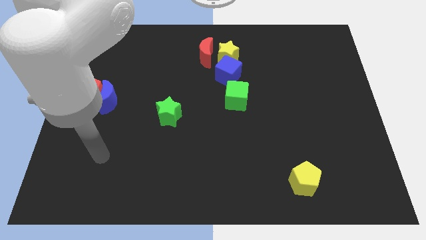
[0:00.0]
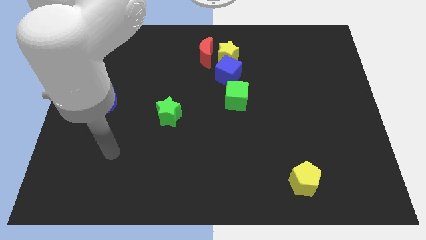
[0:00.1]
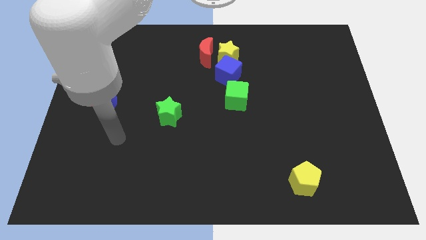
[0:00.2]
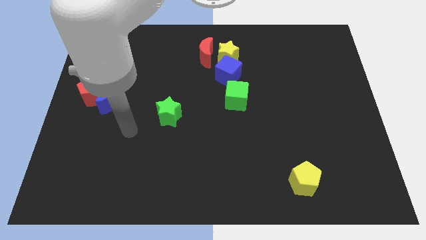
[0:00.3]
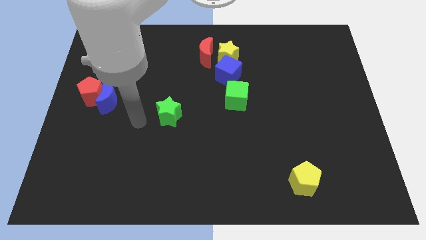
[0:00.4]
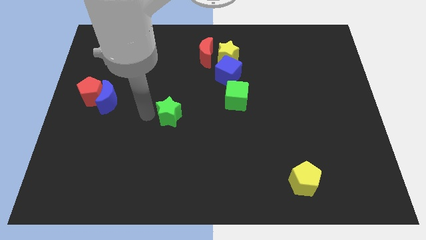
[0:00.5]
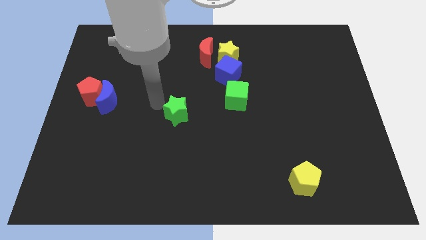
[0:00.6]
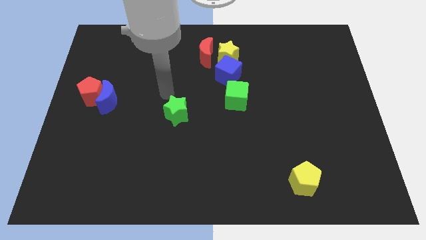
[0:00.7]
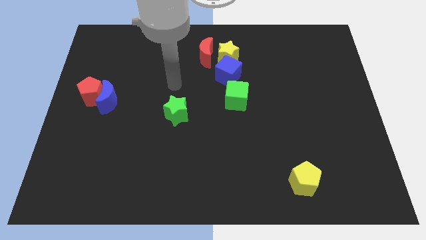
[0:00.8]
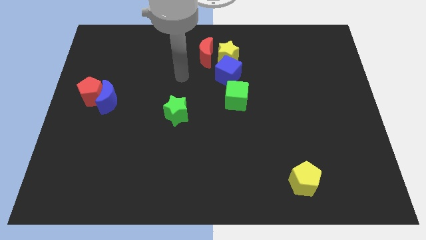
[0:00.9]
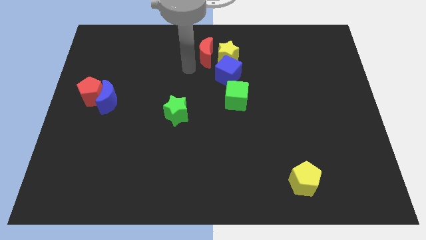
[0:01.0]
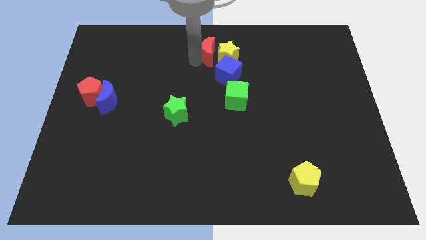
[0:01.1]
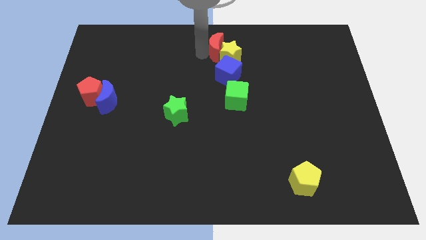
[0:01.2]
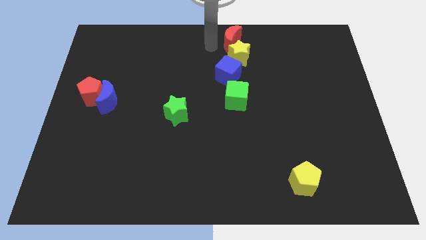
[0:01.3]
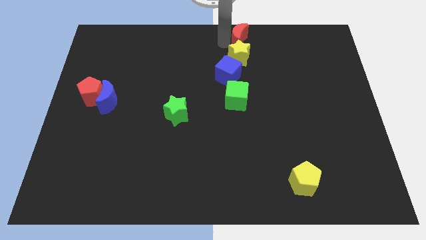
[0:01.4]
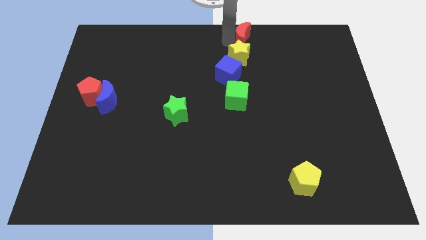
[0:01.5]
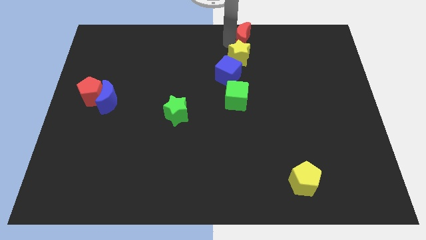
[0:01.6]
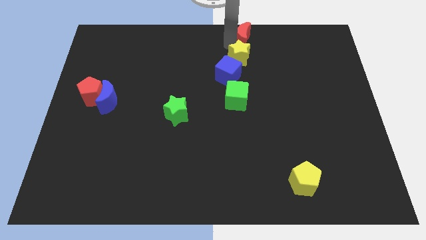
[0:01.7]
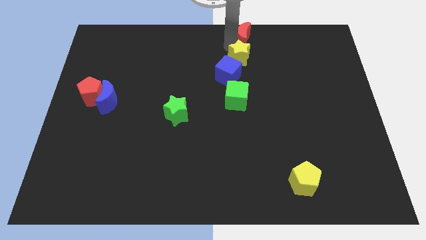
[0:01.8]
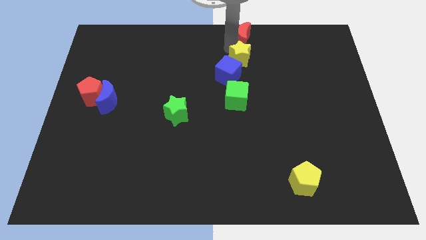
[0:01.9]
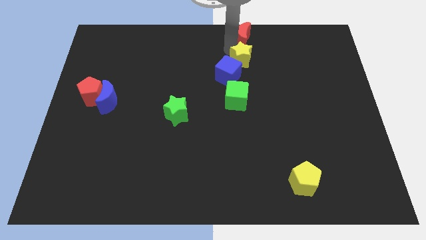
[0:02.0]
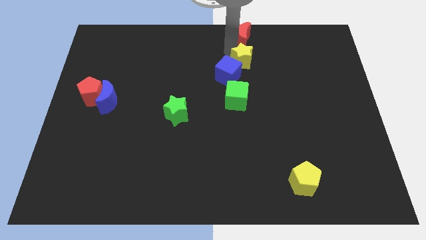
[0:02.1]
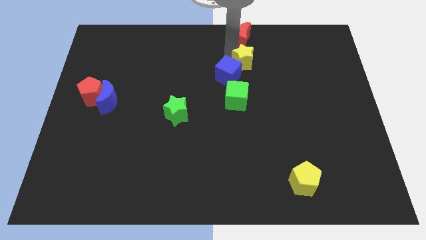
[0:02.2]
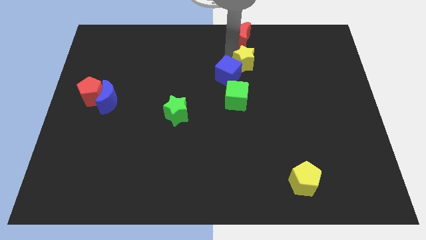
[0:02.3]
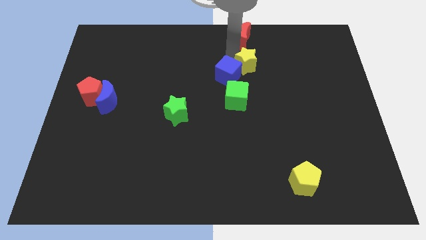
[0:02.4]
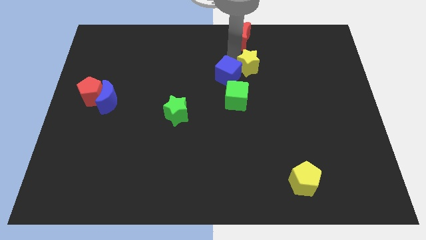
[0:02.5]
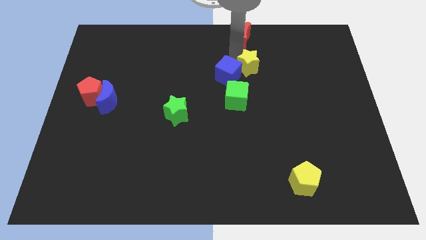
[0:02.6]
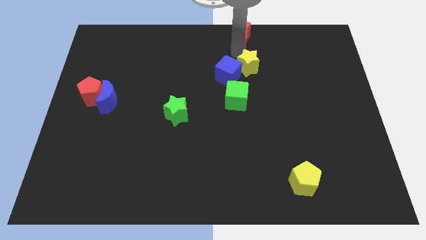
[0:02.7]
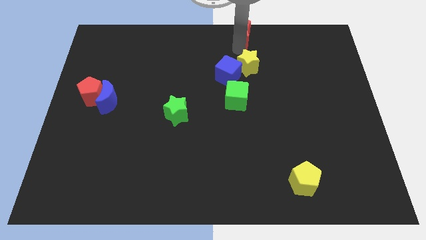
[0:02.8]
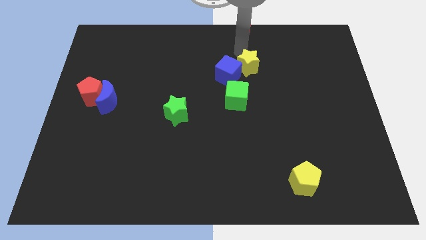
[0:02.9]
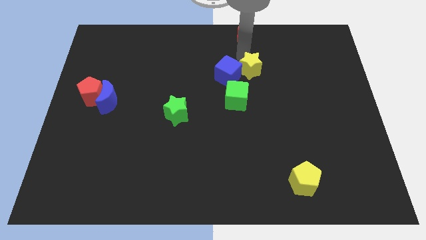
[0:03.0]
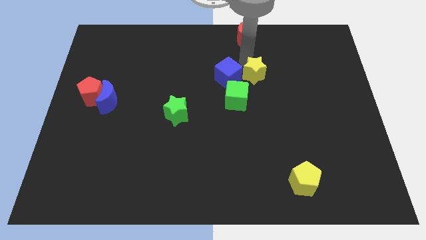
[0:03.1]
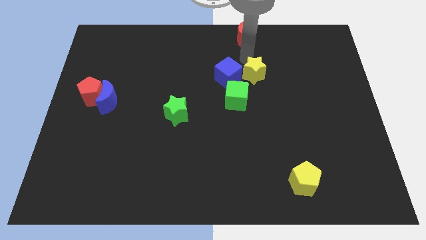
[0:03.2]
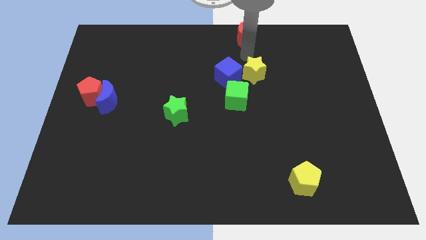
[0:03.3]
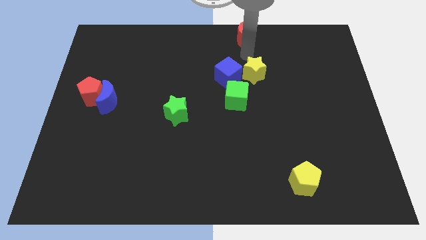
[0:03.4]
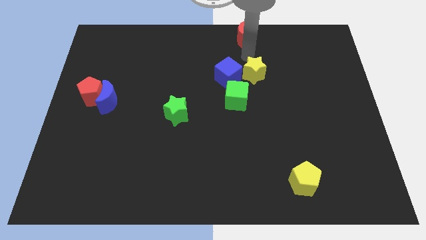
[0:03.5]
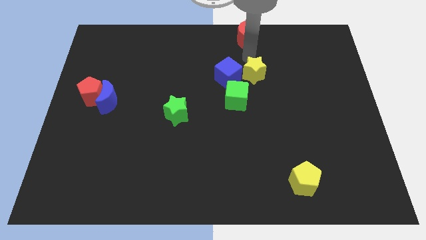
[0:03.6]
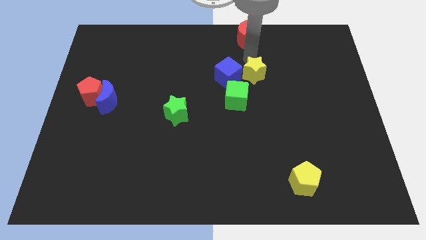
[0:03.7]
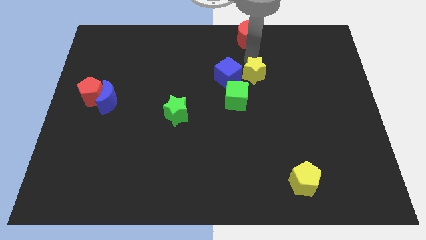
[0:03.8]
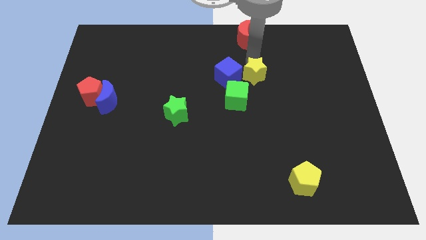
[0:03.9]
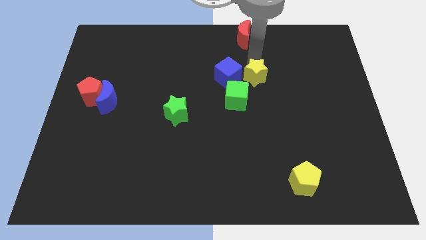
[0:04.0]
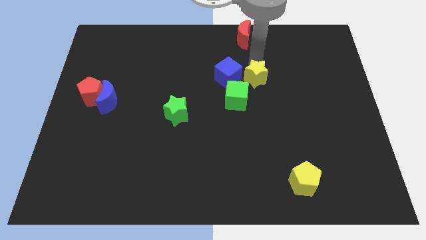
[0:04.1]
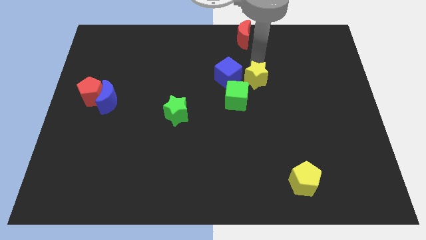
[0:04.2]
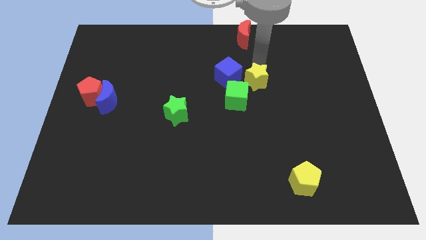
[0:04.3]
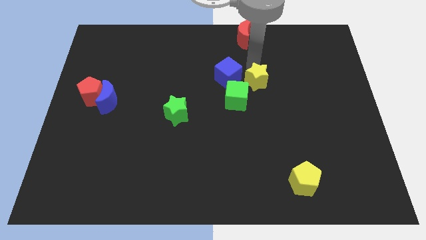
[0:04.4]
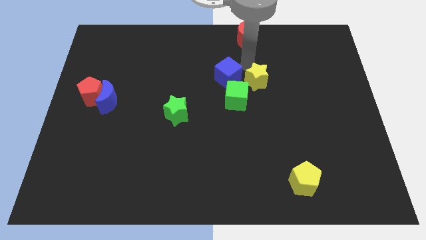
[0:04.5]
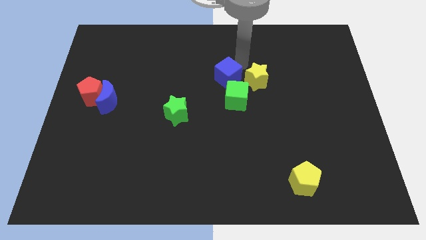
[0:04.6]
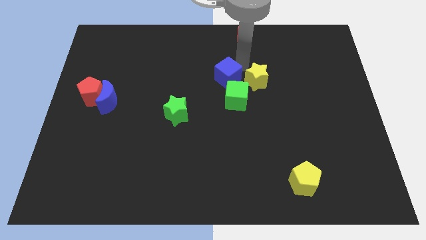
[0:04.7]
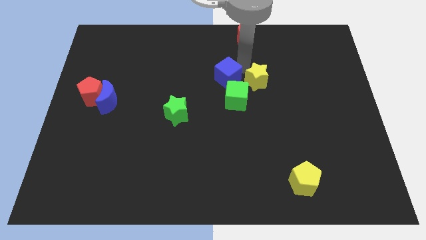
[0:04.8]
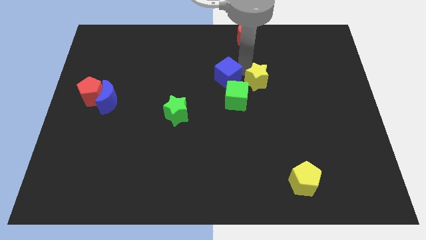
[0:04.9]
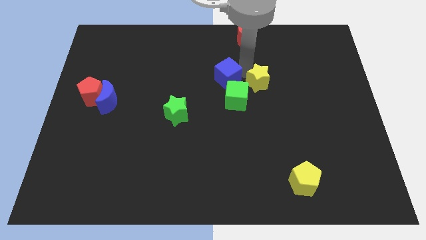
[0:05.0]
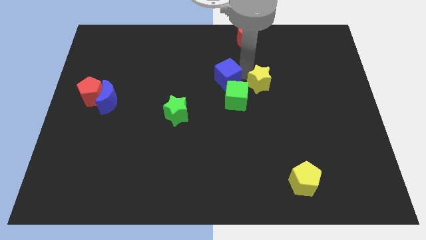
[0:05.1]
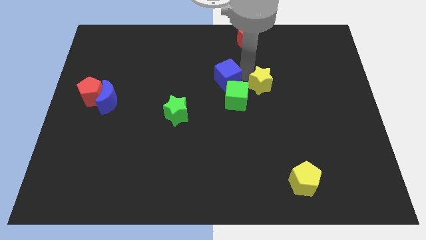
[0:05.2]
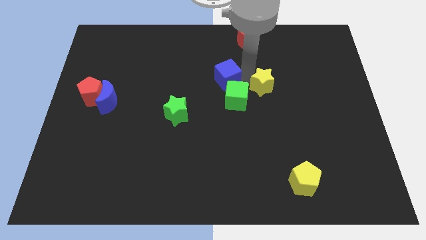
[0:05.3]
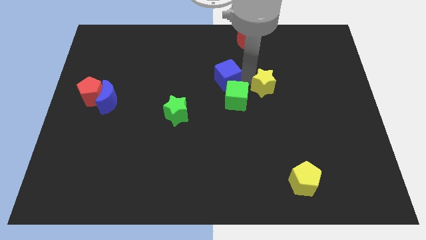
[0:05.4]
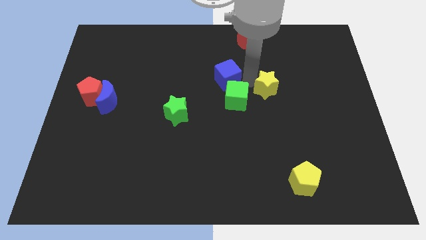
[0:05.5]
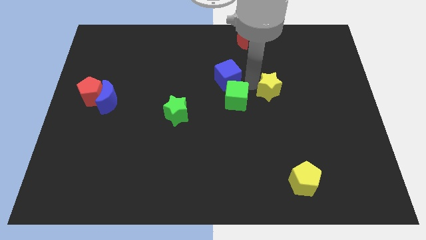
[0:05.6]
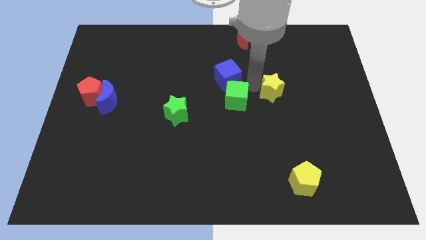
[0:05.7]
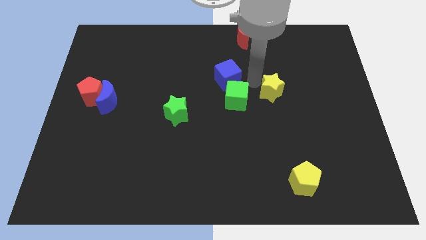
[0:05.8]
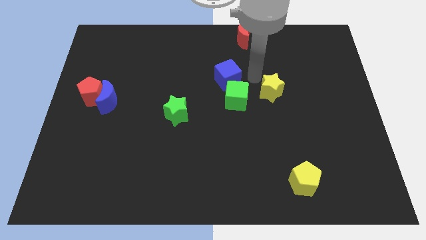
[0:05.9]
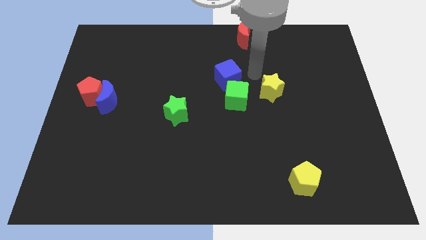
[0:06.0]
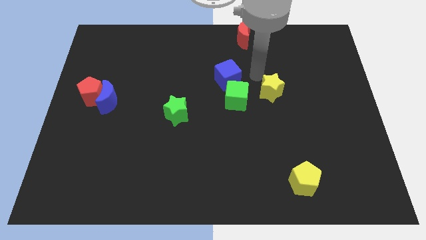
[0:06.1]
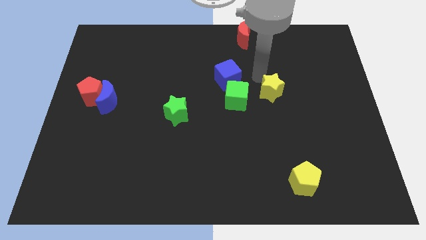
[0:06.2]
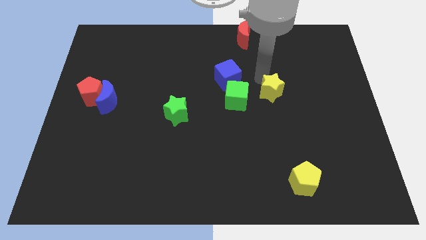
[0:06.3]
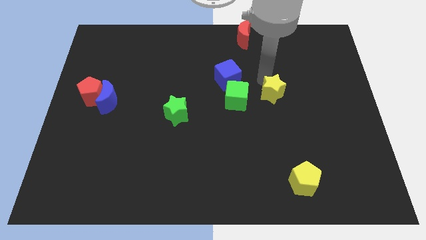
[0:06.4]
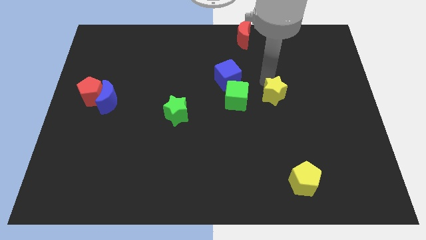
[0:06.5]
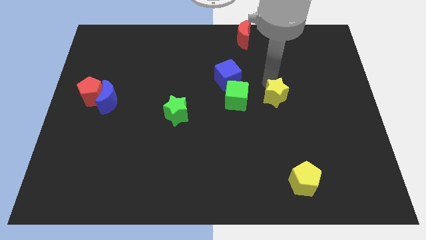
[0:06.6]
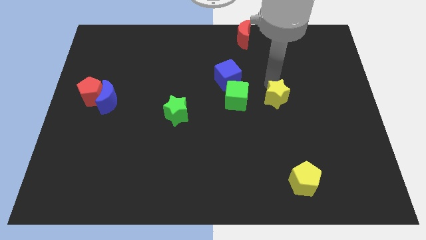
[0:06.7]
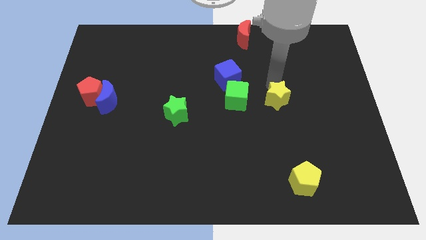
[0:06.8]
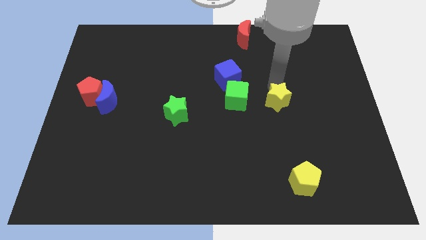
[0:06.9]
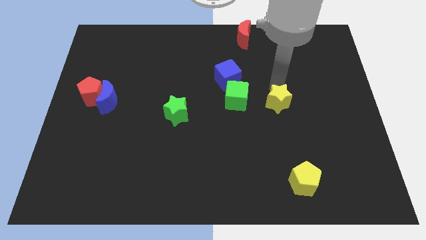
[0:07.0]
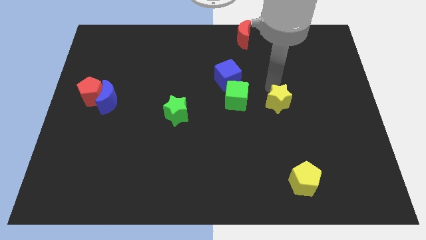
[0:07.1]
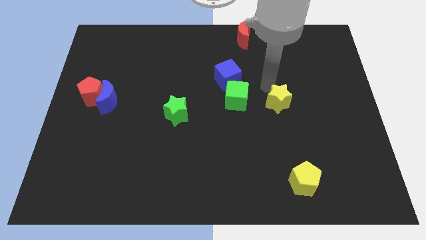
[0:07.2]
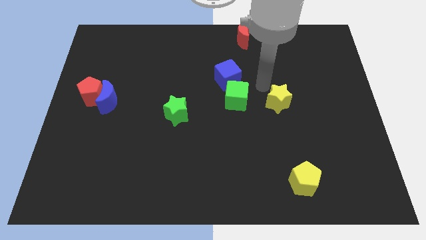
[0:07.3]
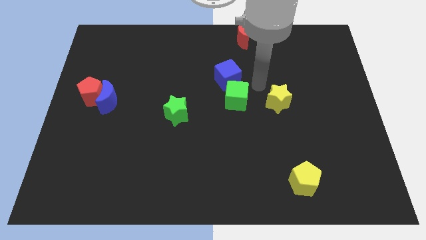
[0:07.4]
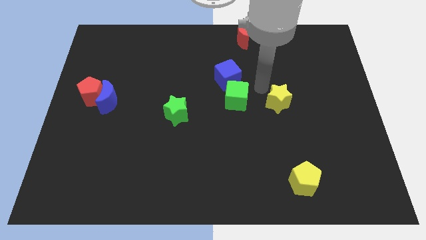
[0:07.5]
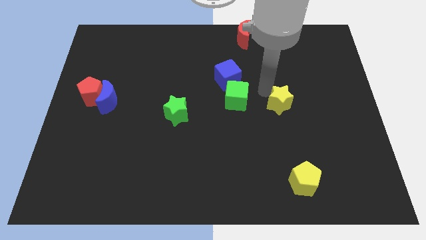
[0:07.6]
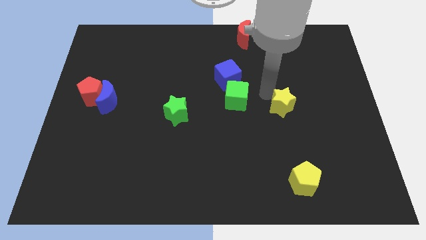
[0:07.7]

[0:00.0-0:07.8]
push the yellow star downwards and then to the right

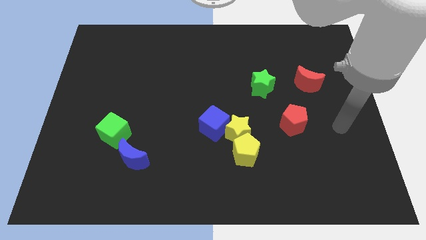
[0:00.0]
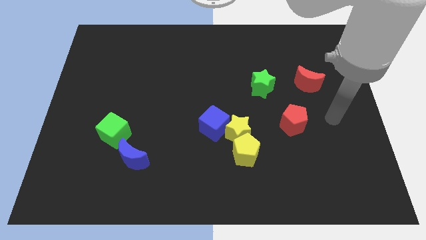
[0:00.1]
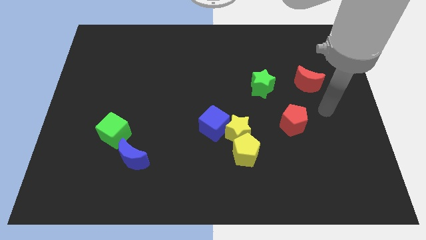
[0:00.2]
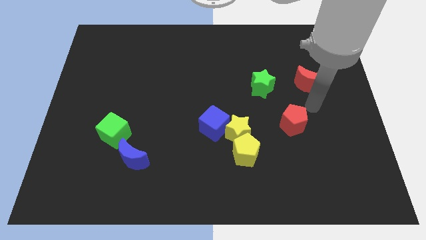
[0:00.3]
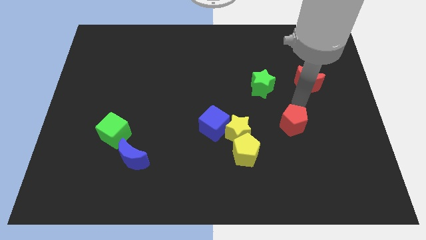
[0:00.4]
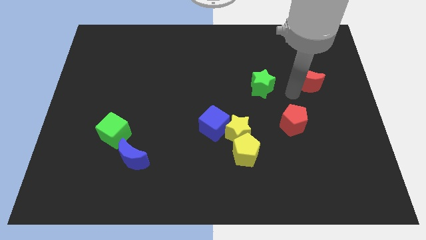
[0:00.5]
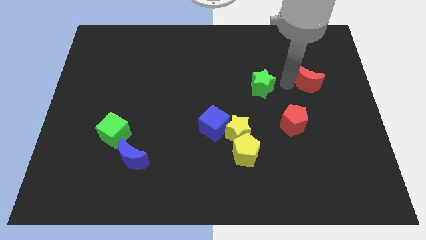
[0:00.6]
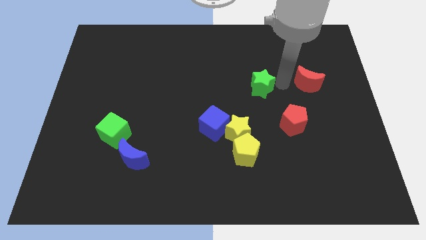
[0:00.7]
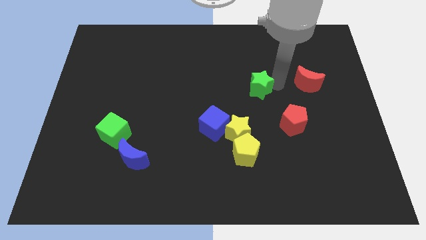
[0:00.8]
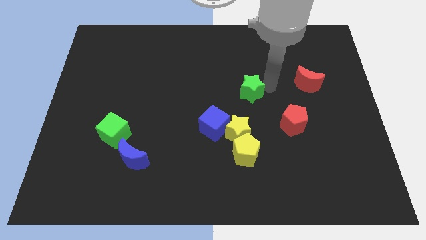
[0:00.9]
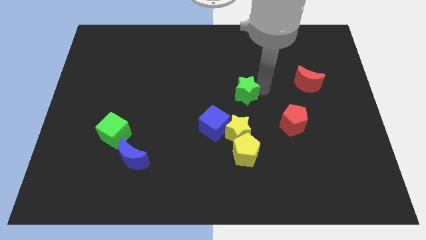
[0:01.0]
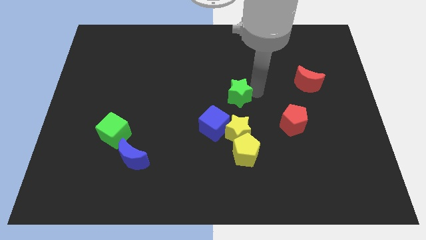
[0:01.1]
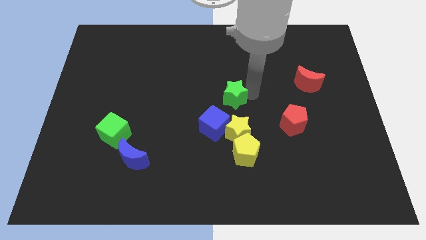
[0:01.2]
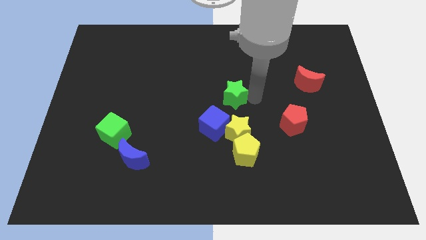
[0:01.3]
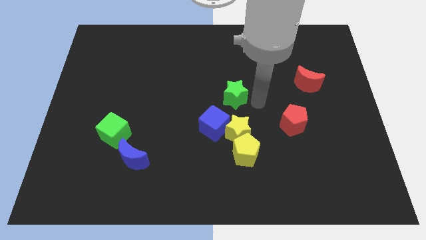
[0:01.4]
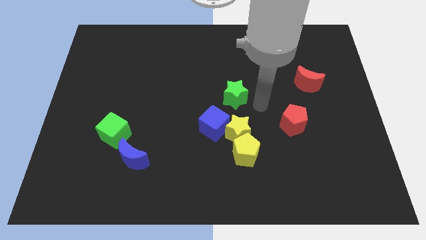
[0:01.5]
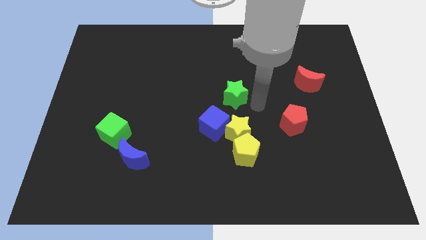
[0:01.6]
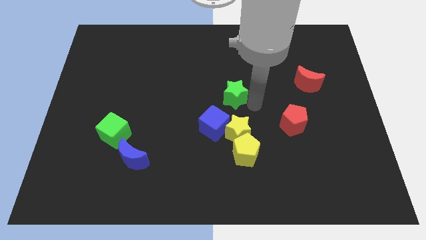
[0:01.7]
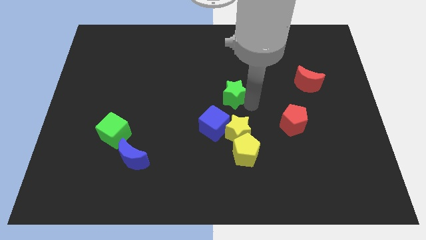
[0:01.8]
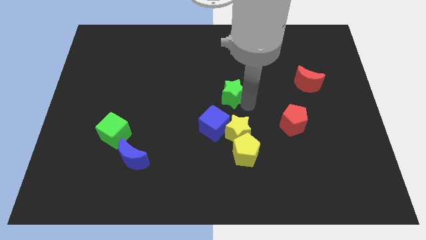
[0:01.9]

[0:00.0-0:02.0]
slightly push the green star left
